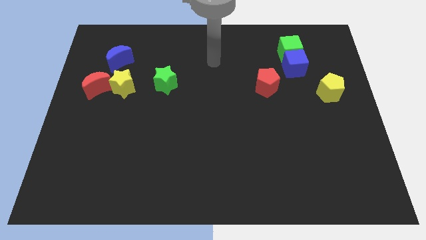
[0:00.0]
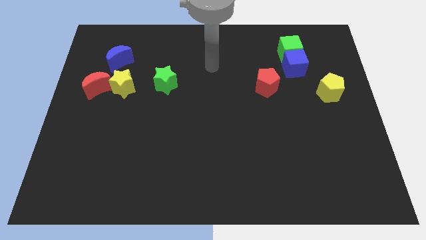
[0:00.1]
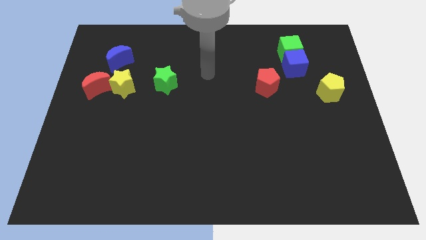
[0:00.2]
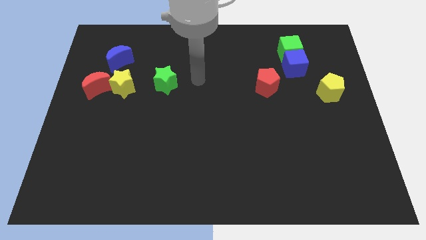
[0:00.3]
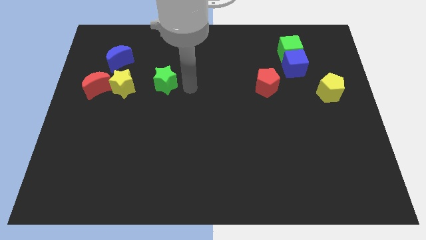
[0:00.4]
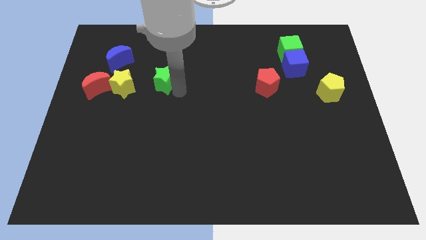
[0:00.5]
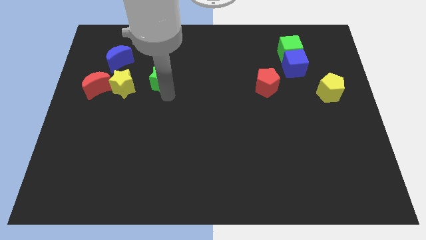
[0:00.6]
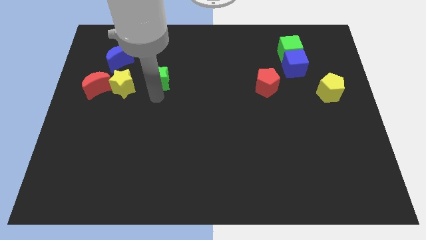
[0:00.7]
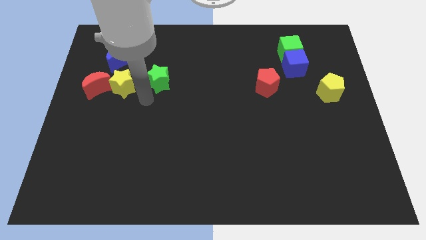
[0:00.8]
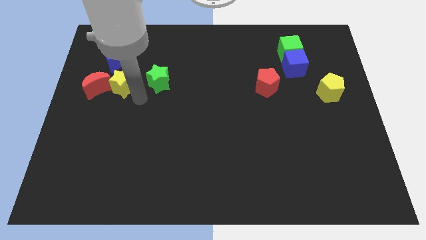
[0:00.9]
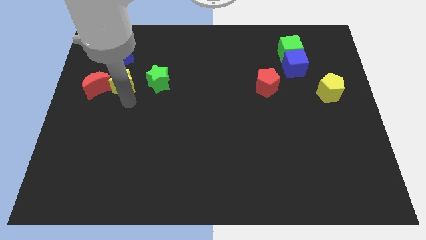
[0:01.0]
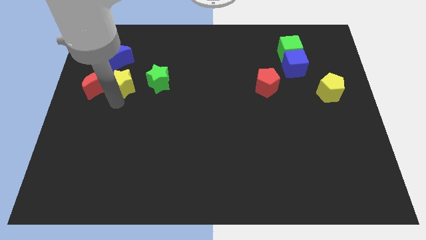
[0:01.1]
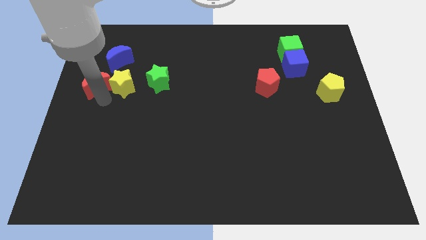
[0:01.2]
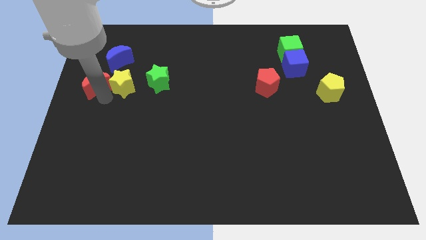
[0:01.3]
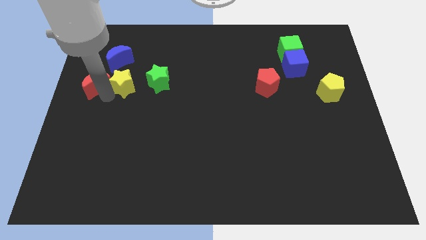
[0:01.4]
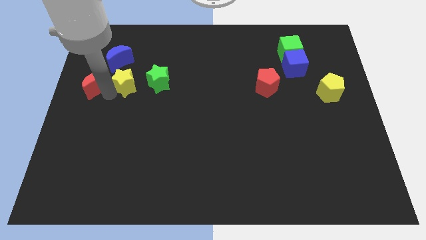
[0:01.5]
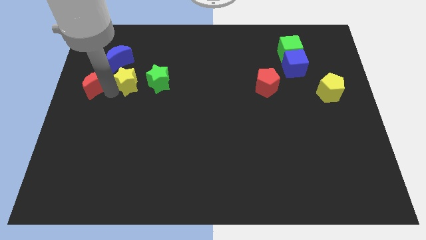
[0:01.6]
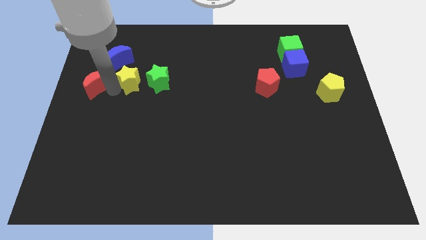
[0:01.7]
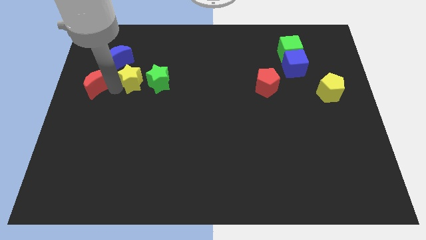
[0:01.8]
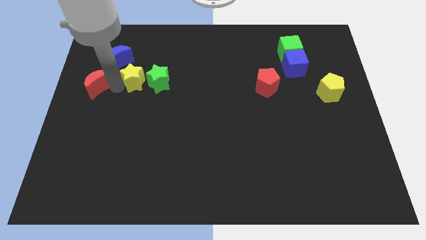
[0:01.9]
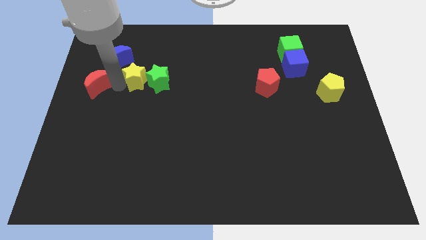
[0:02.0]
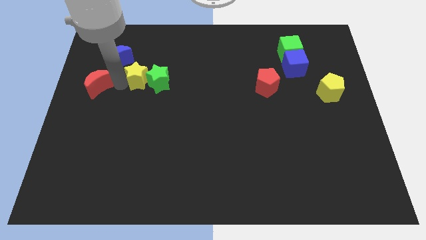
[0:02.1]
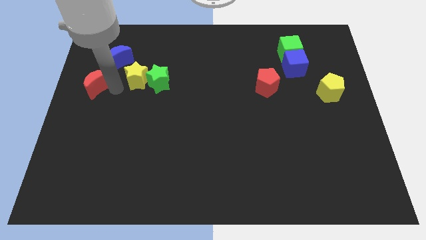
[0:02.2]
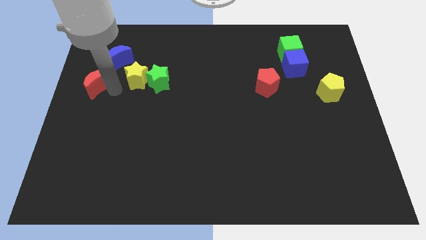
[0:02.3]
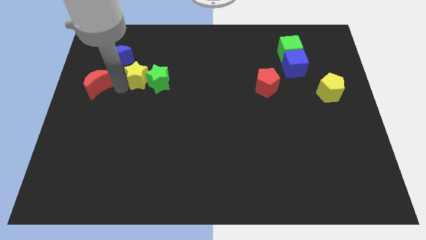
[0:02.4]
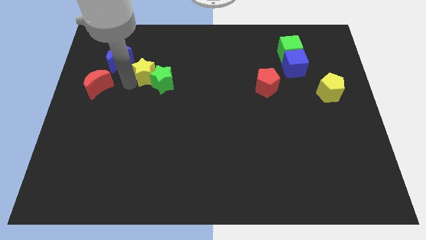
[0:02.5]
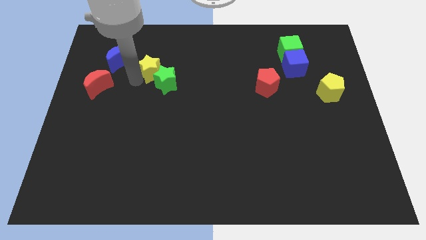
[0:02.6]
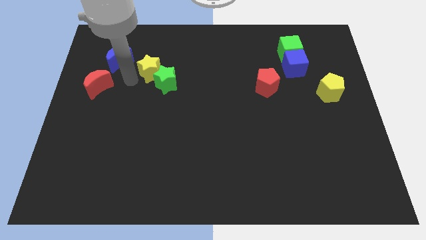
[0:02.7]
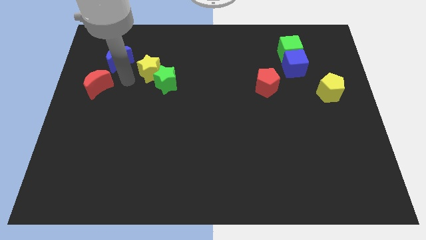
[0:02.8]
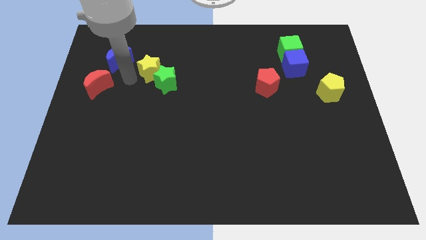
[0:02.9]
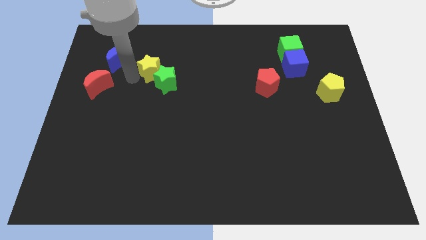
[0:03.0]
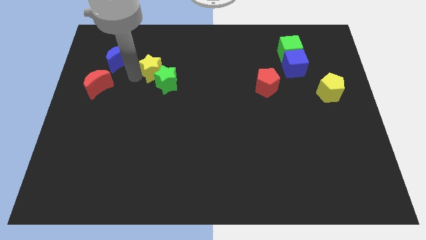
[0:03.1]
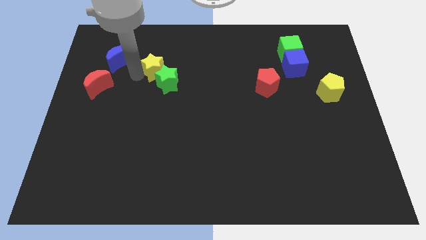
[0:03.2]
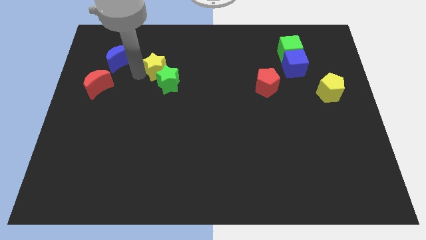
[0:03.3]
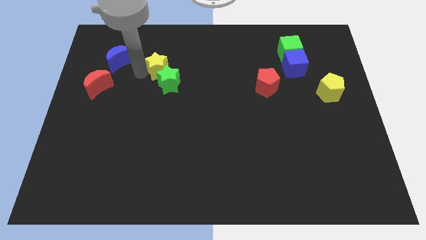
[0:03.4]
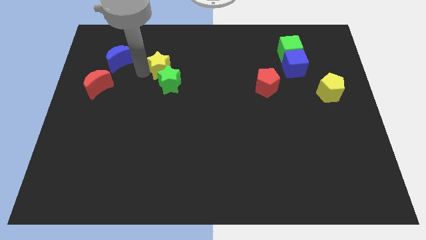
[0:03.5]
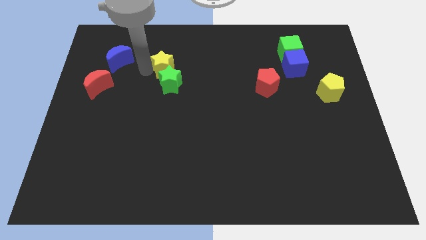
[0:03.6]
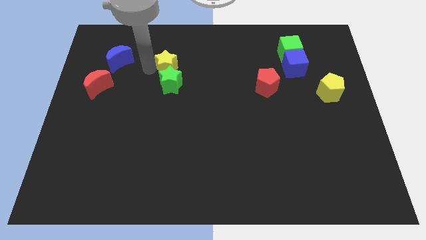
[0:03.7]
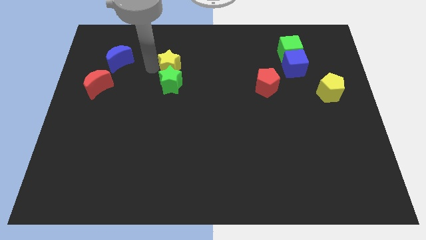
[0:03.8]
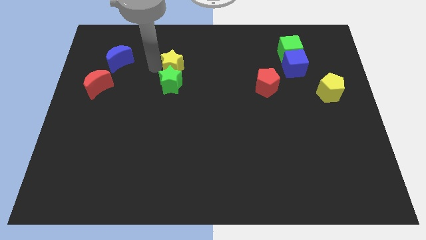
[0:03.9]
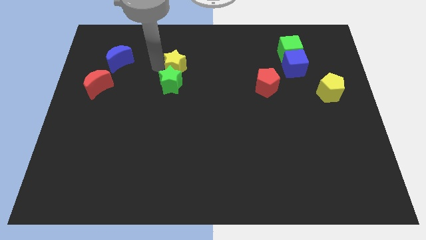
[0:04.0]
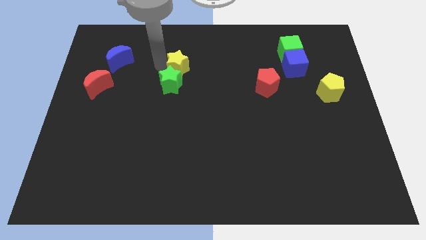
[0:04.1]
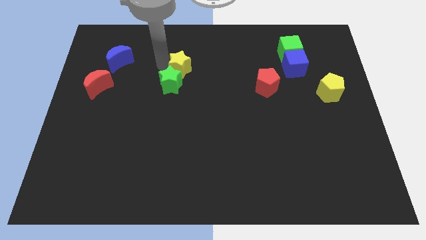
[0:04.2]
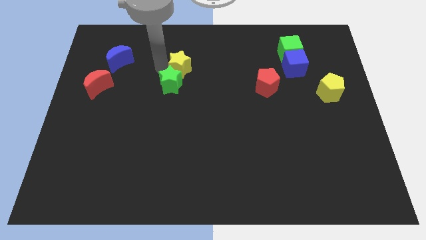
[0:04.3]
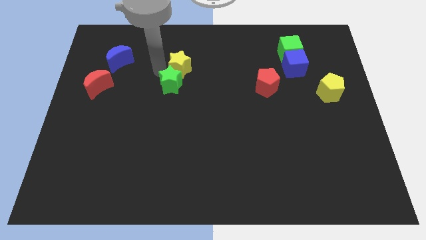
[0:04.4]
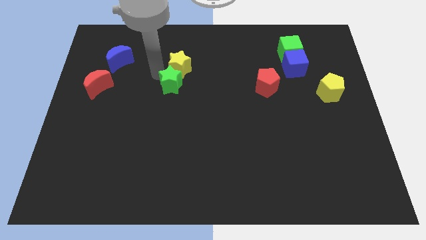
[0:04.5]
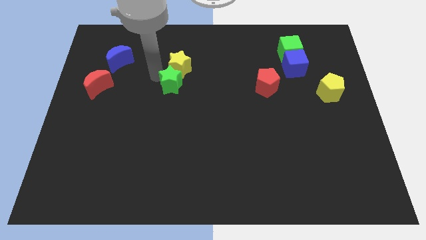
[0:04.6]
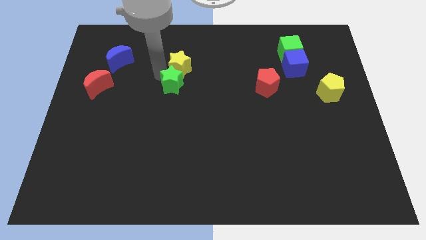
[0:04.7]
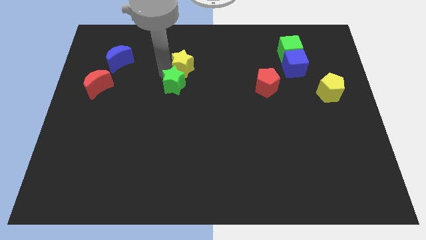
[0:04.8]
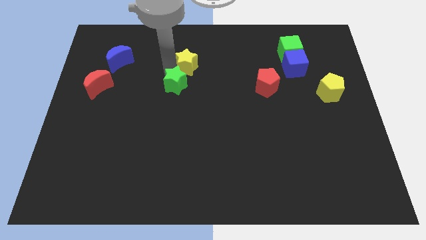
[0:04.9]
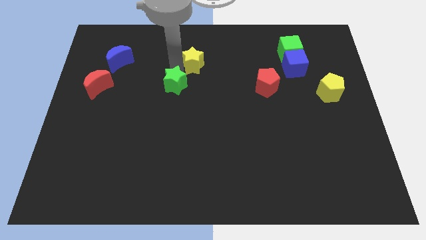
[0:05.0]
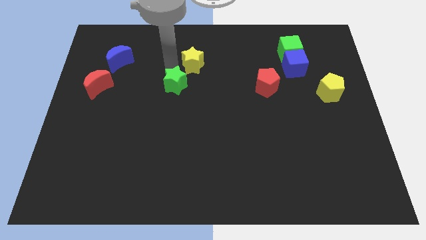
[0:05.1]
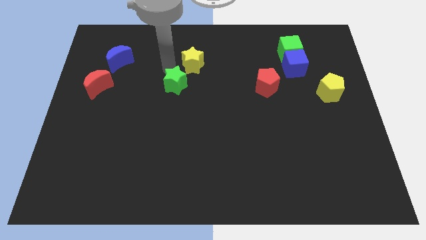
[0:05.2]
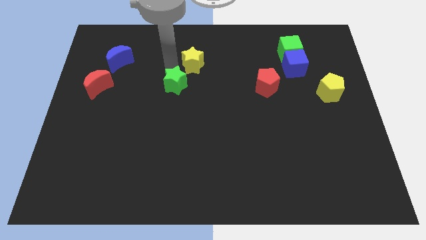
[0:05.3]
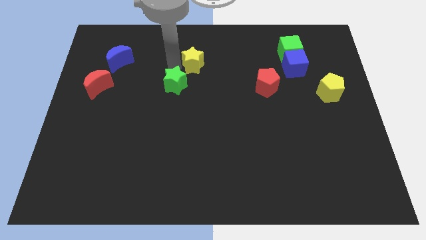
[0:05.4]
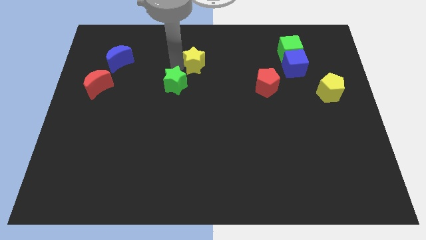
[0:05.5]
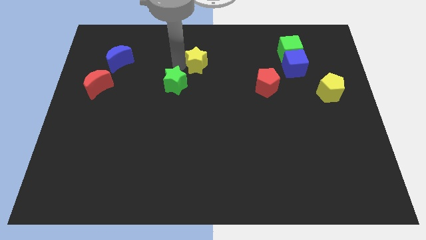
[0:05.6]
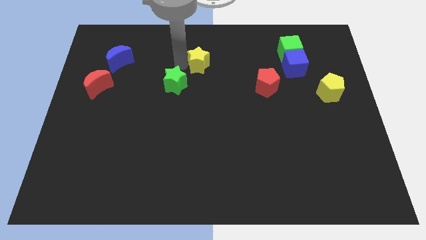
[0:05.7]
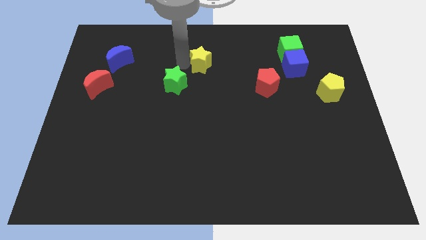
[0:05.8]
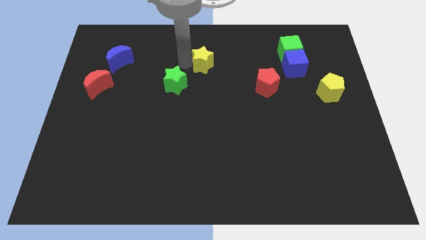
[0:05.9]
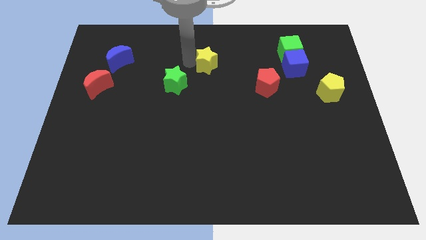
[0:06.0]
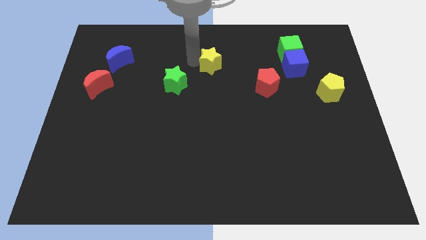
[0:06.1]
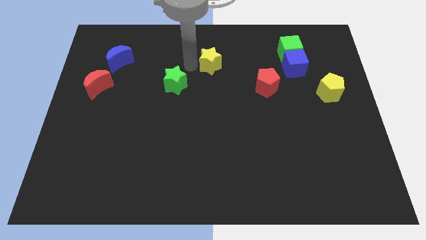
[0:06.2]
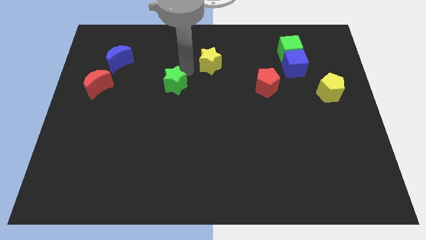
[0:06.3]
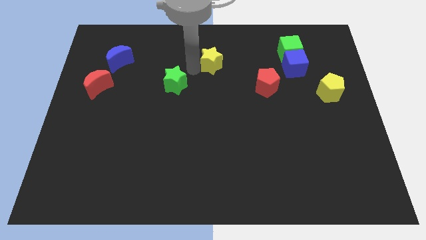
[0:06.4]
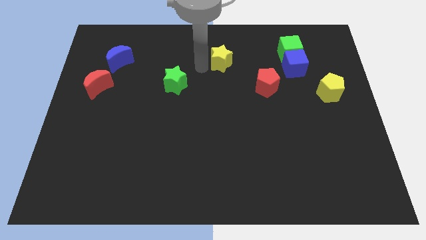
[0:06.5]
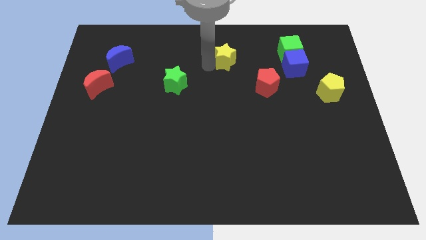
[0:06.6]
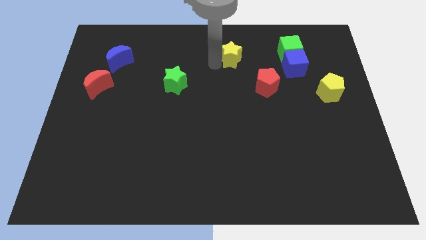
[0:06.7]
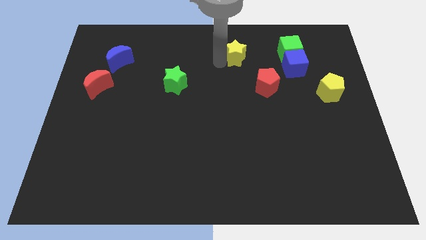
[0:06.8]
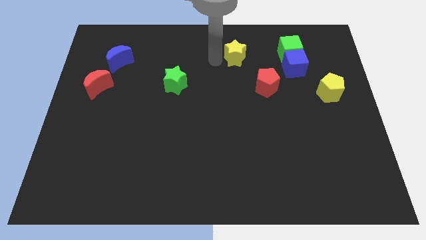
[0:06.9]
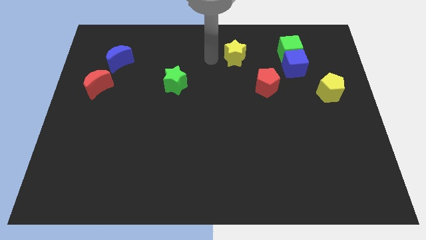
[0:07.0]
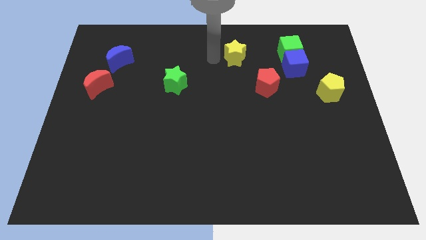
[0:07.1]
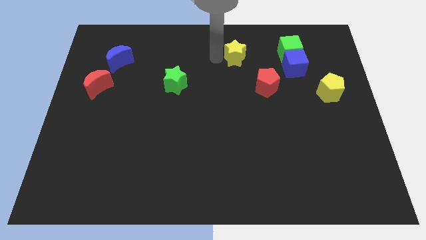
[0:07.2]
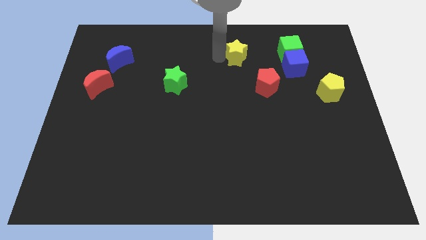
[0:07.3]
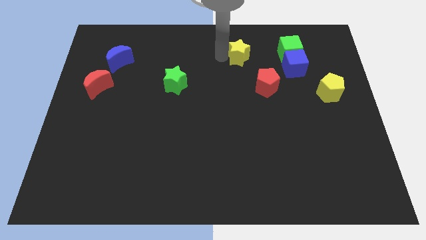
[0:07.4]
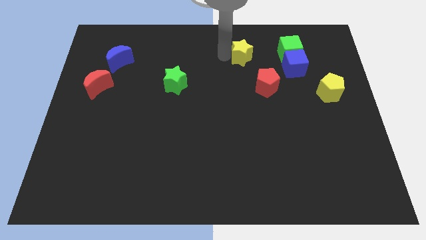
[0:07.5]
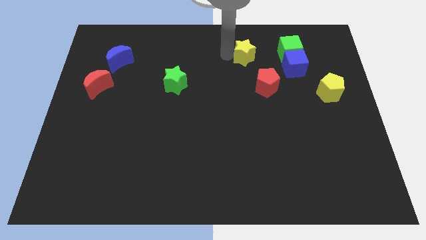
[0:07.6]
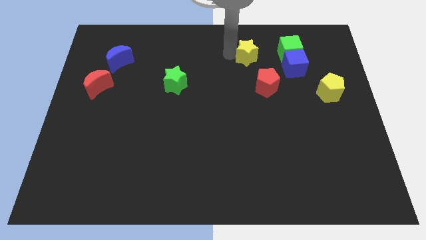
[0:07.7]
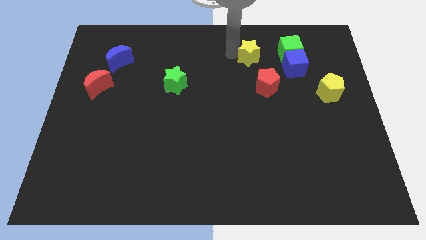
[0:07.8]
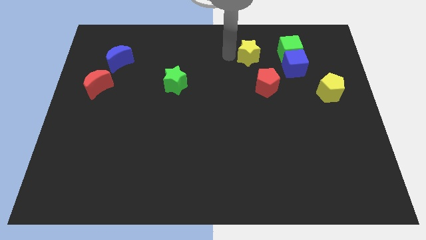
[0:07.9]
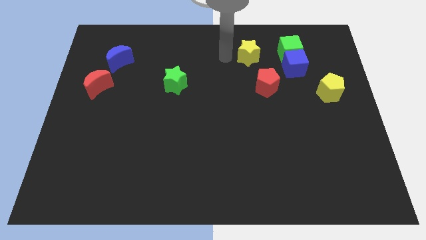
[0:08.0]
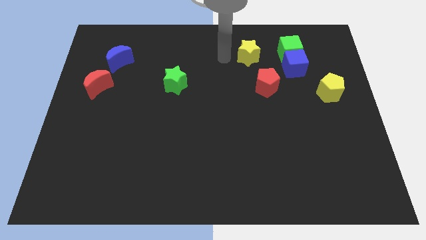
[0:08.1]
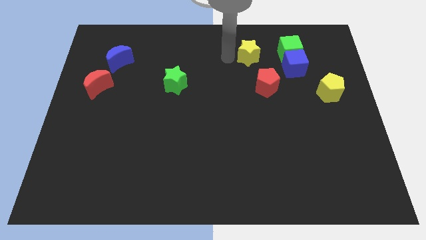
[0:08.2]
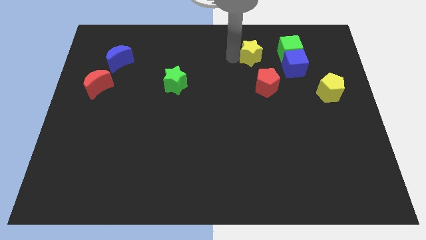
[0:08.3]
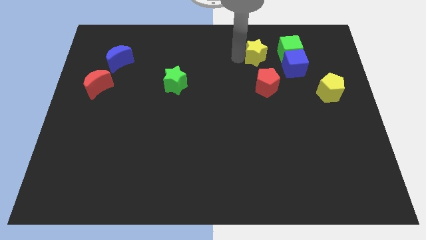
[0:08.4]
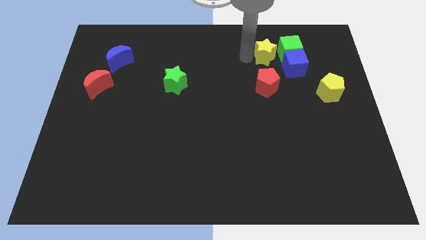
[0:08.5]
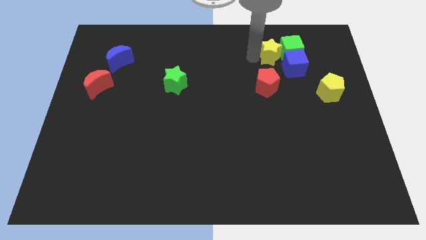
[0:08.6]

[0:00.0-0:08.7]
put the yellow star close to the green cube
